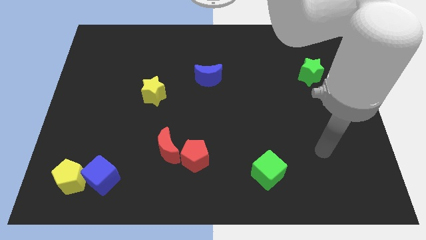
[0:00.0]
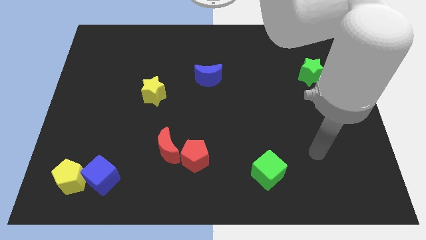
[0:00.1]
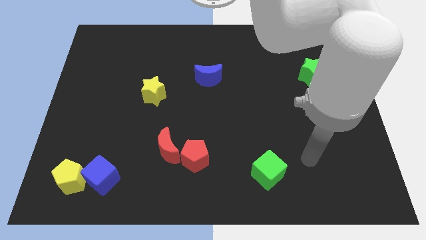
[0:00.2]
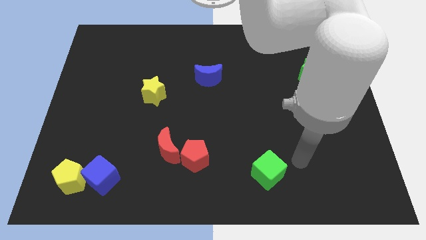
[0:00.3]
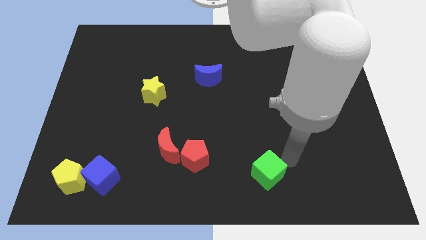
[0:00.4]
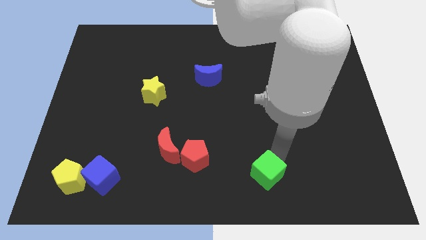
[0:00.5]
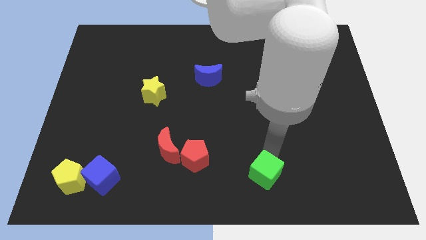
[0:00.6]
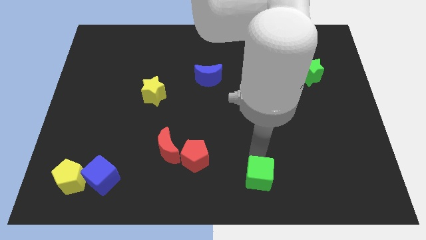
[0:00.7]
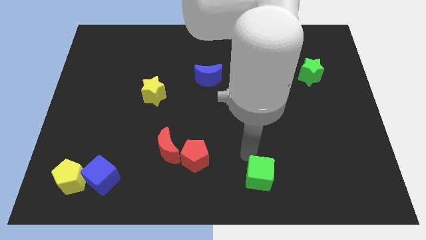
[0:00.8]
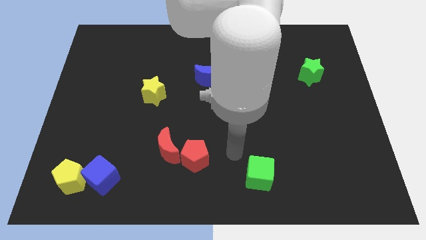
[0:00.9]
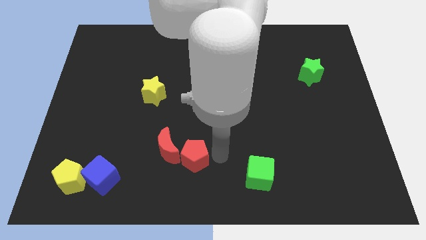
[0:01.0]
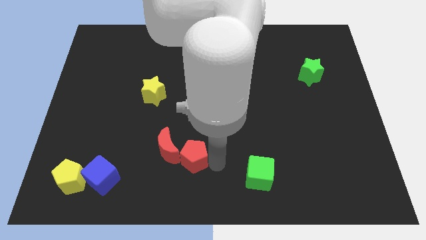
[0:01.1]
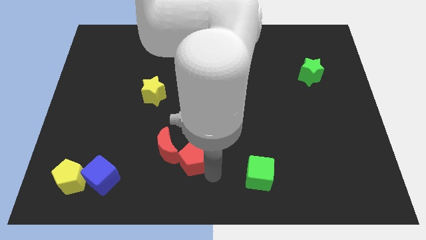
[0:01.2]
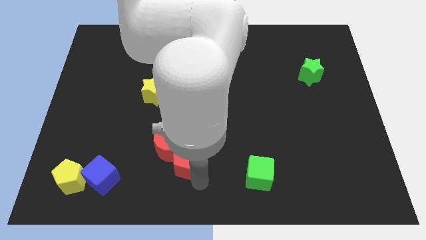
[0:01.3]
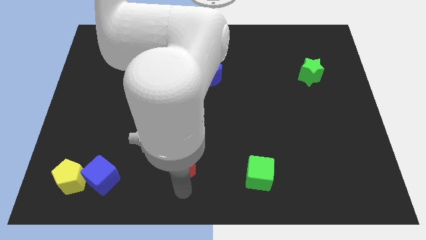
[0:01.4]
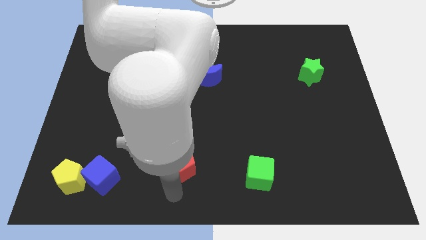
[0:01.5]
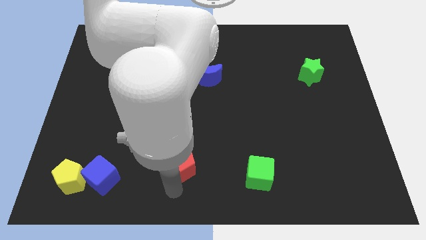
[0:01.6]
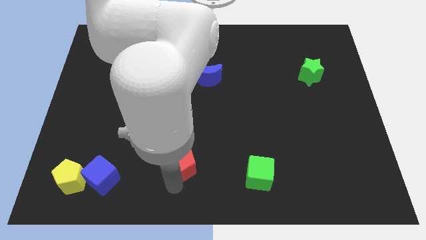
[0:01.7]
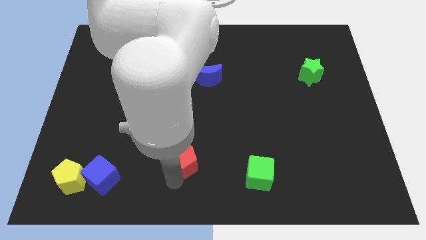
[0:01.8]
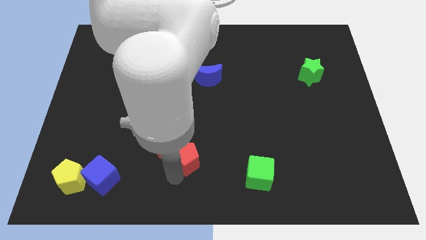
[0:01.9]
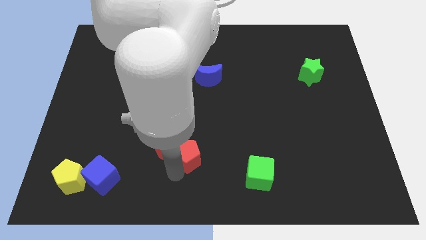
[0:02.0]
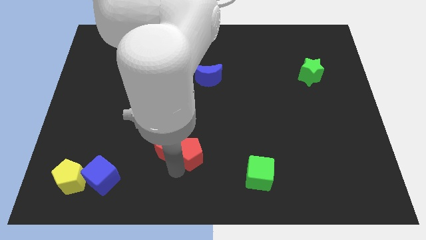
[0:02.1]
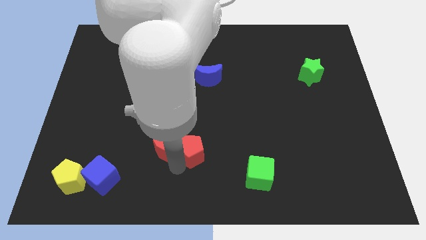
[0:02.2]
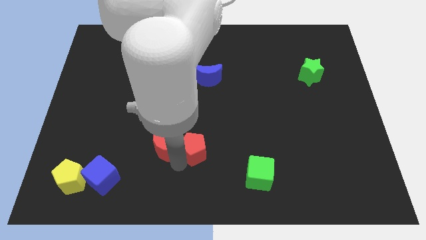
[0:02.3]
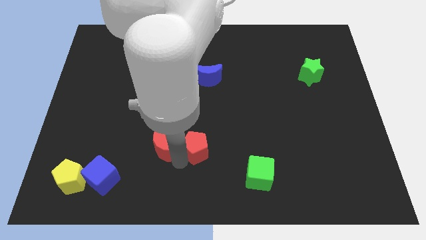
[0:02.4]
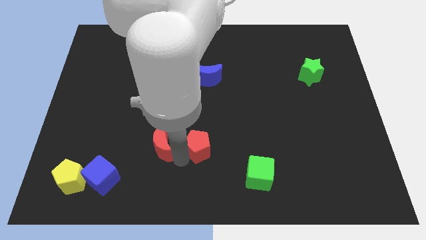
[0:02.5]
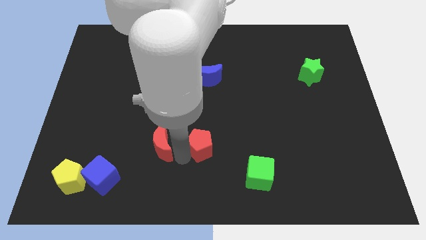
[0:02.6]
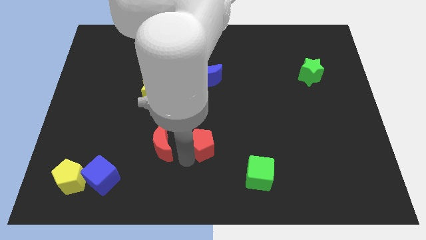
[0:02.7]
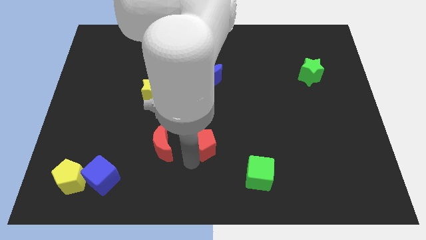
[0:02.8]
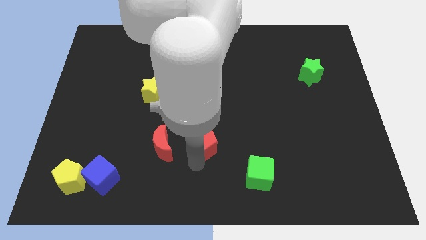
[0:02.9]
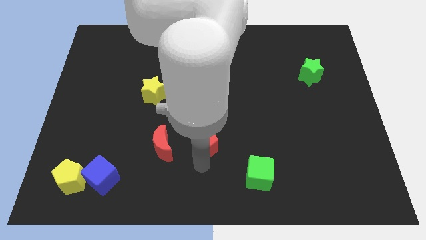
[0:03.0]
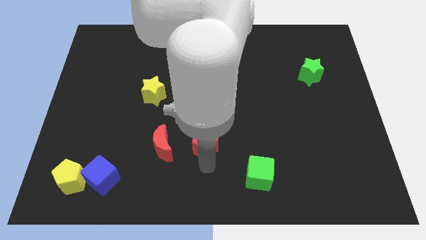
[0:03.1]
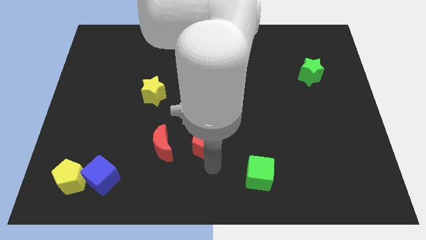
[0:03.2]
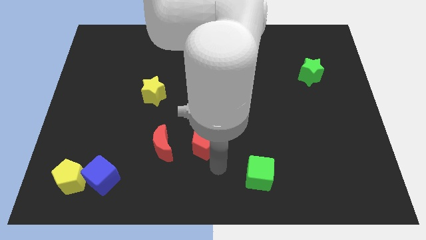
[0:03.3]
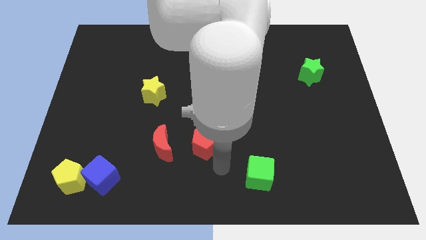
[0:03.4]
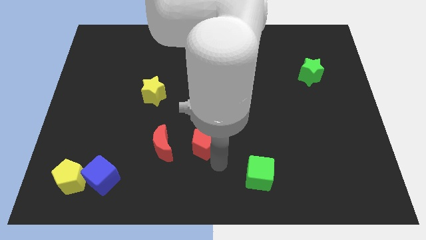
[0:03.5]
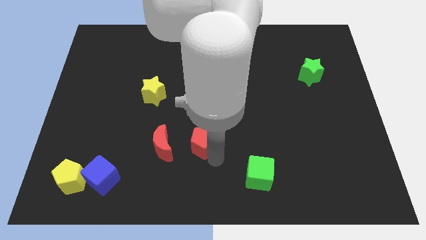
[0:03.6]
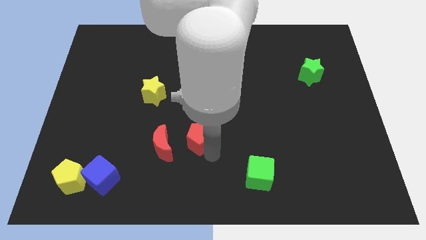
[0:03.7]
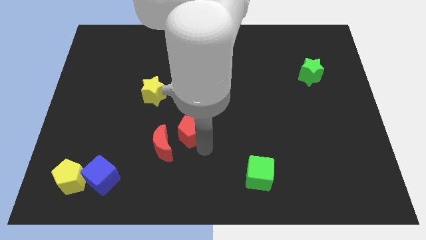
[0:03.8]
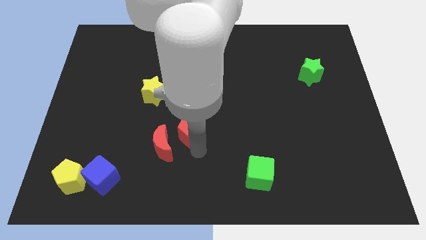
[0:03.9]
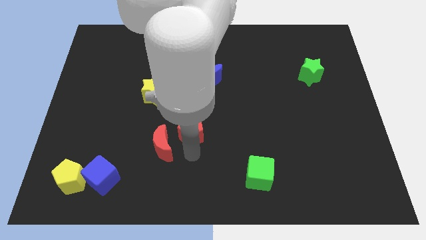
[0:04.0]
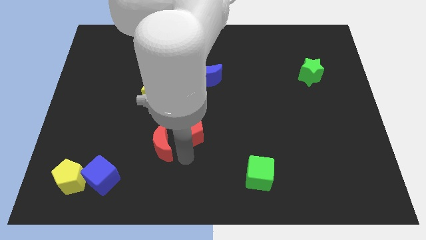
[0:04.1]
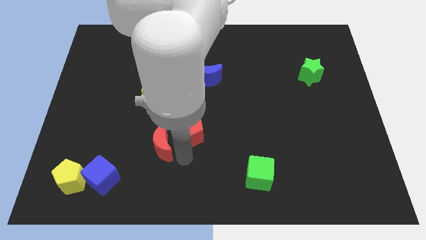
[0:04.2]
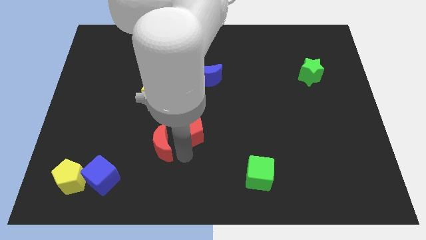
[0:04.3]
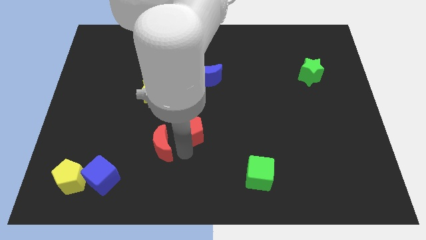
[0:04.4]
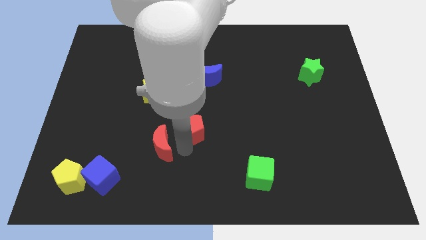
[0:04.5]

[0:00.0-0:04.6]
move the red pentagon a little up

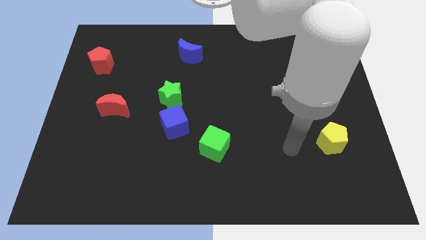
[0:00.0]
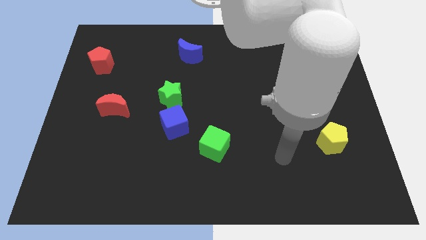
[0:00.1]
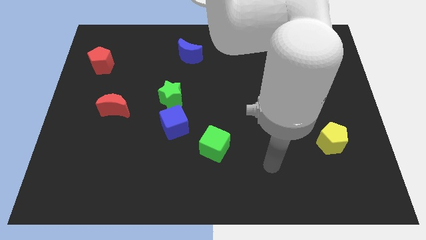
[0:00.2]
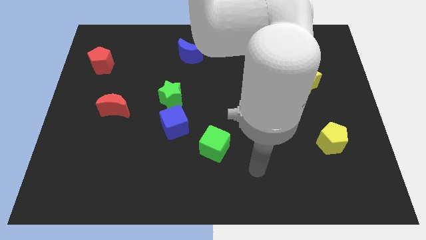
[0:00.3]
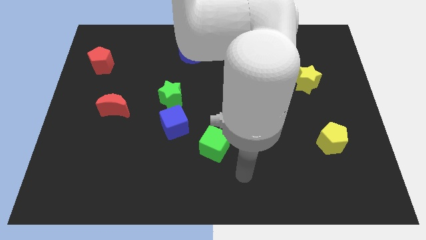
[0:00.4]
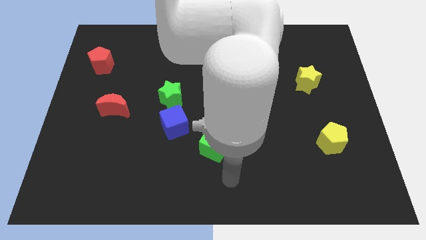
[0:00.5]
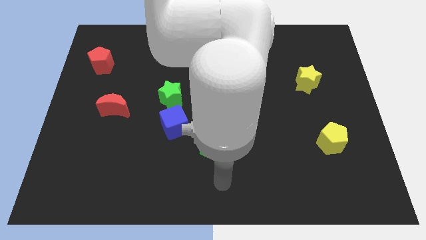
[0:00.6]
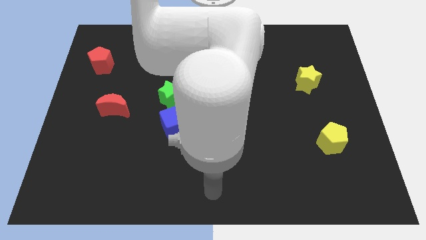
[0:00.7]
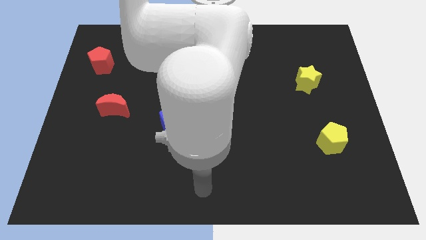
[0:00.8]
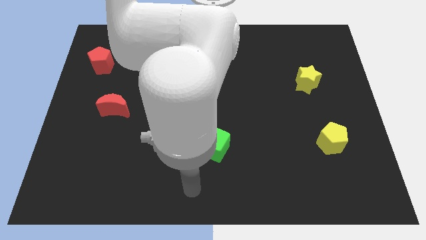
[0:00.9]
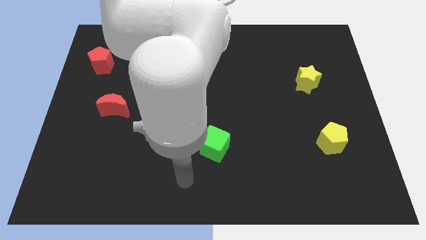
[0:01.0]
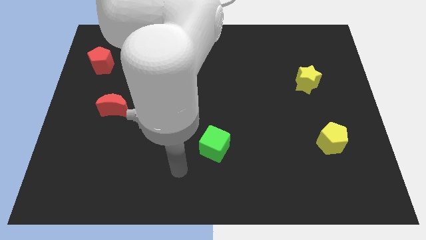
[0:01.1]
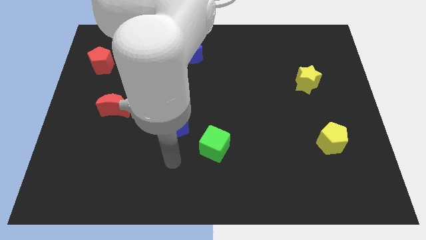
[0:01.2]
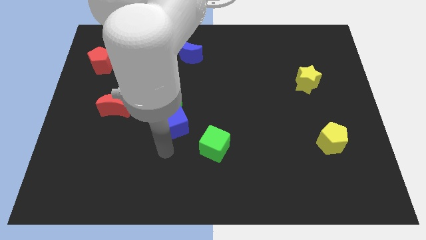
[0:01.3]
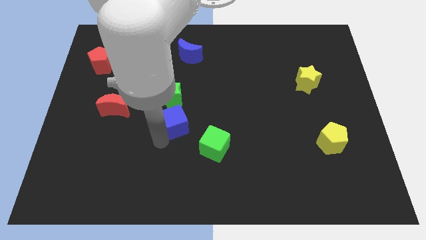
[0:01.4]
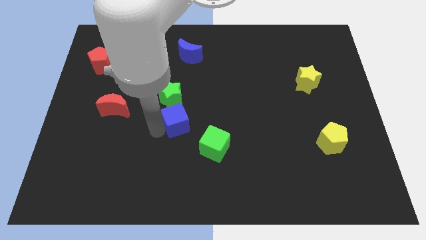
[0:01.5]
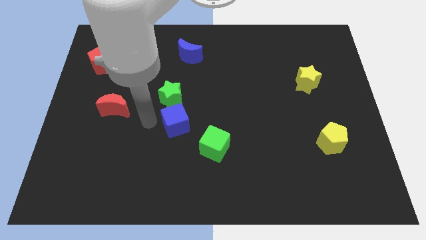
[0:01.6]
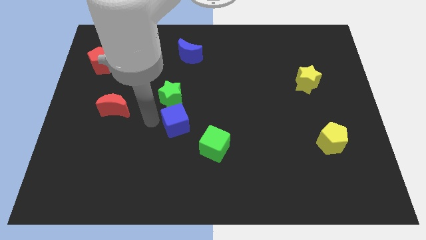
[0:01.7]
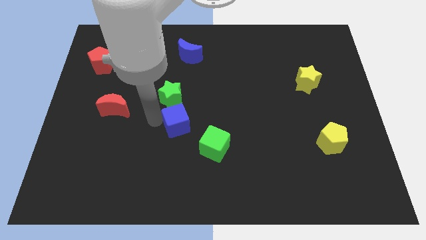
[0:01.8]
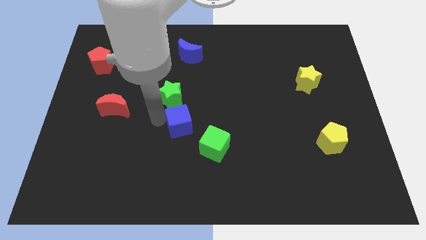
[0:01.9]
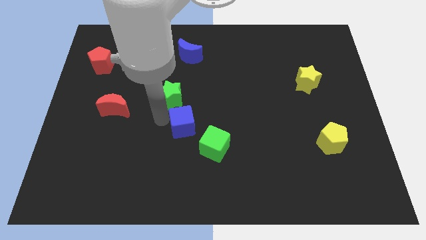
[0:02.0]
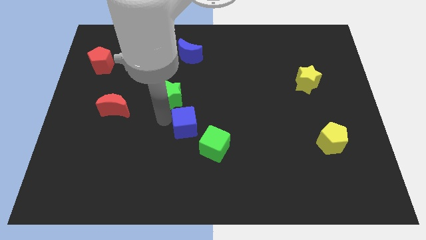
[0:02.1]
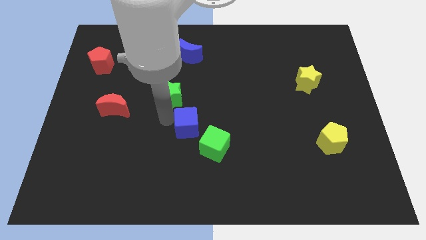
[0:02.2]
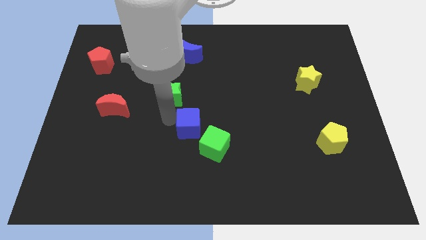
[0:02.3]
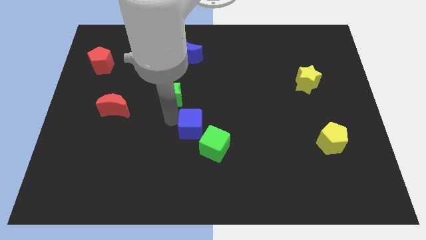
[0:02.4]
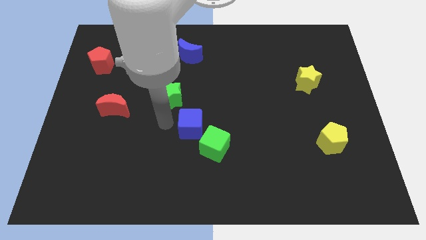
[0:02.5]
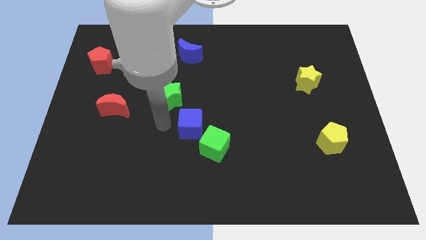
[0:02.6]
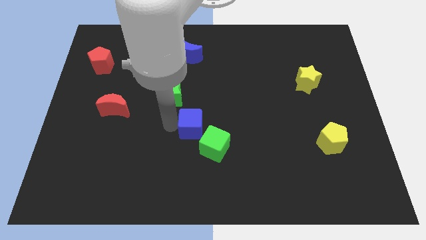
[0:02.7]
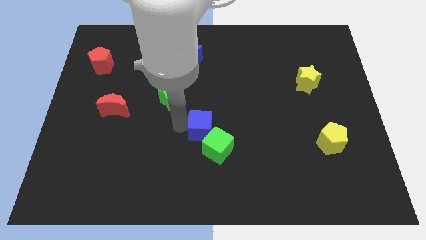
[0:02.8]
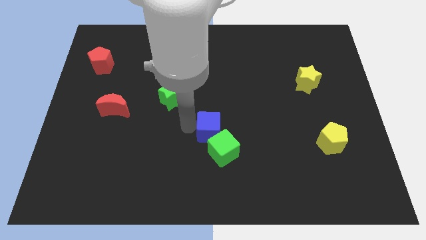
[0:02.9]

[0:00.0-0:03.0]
slide the blue cube right a little bit

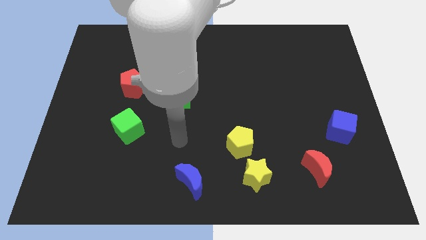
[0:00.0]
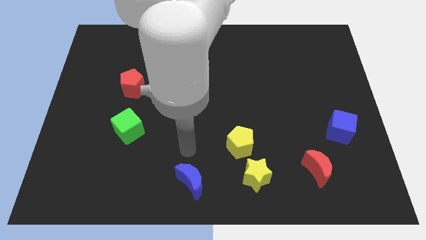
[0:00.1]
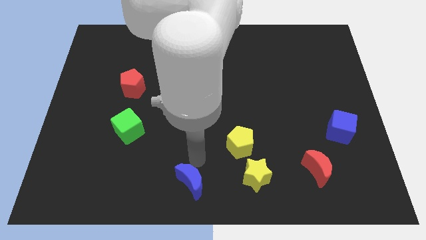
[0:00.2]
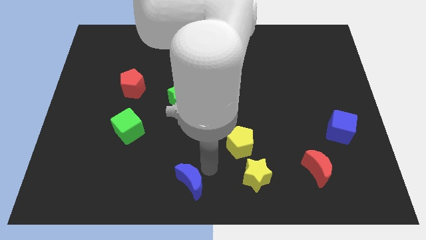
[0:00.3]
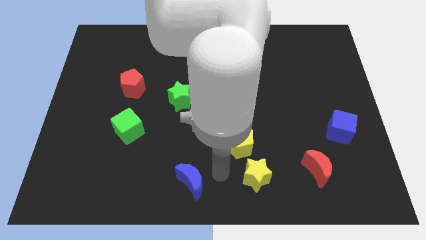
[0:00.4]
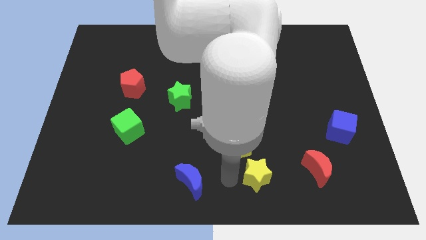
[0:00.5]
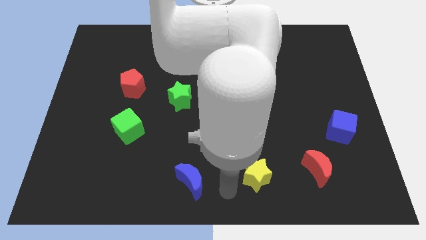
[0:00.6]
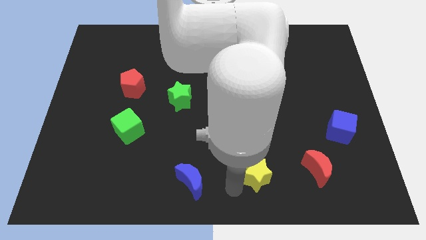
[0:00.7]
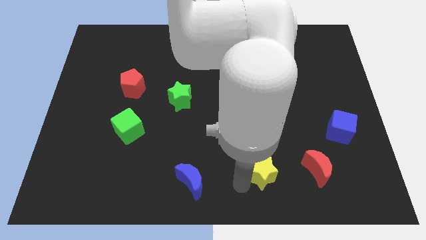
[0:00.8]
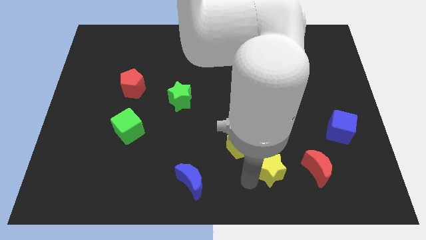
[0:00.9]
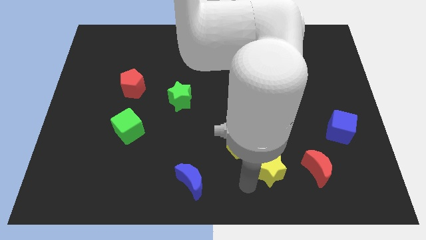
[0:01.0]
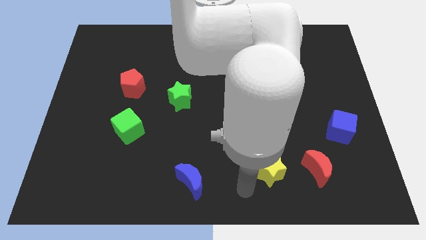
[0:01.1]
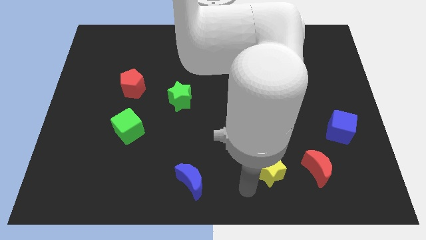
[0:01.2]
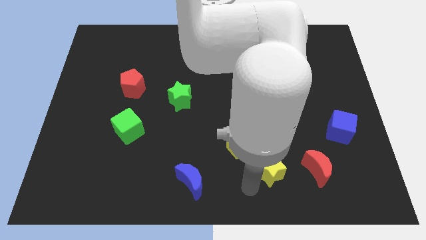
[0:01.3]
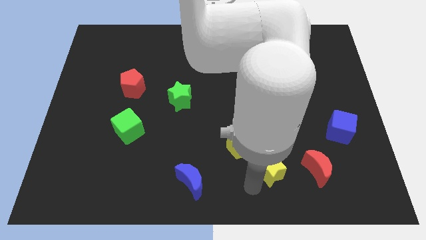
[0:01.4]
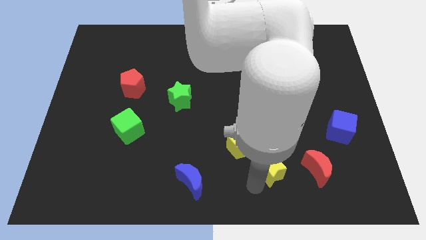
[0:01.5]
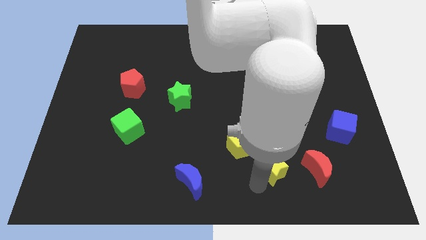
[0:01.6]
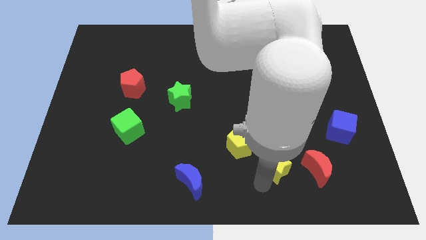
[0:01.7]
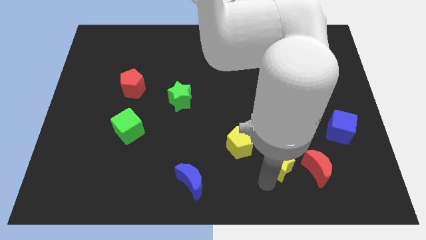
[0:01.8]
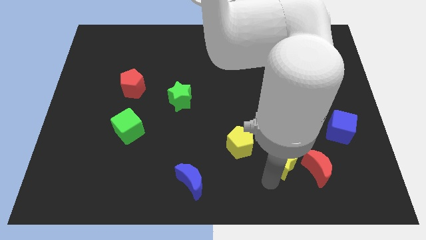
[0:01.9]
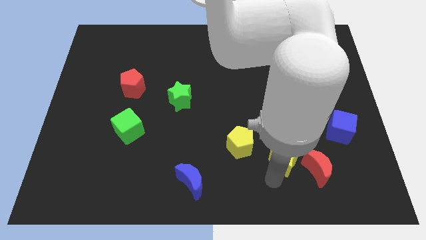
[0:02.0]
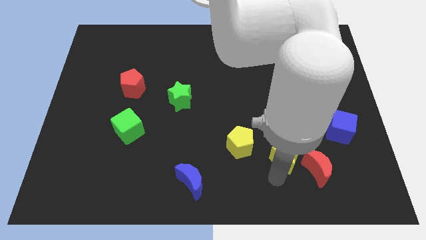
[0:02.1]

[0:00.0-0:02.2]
slightly push the yellow star upwards and to the right diagonally
